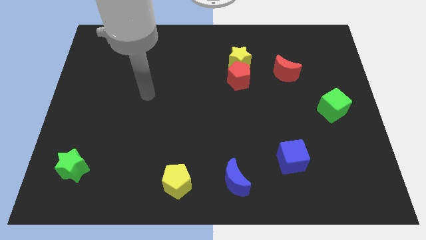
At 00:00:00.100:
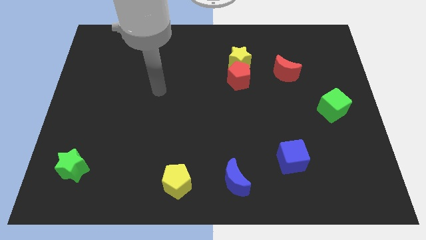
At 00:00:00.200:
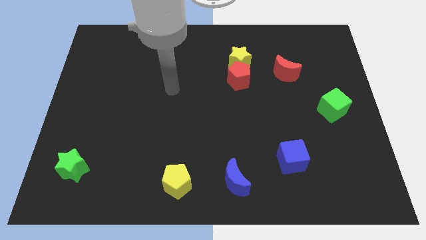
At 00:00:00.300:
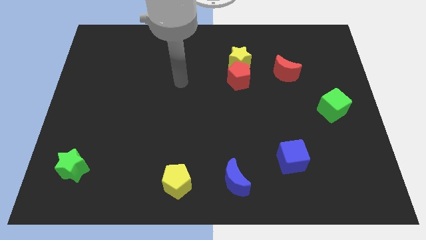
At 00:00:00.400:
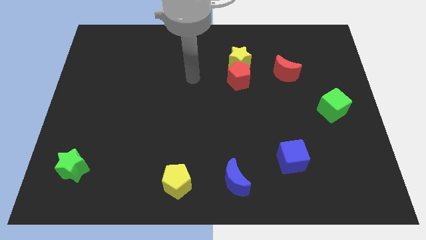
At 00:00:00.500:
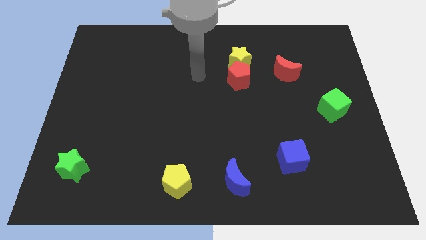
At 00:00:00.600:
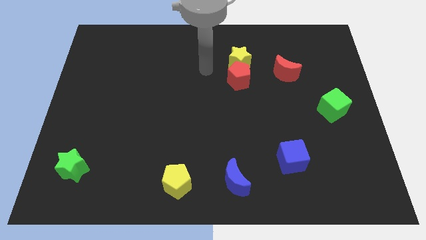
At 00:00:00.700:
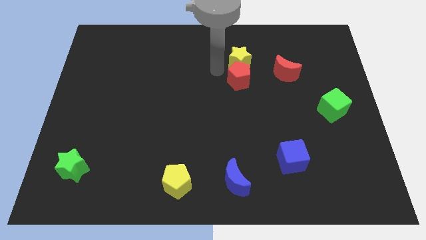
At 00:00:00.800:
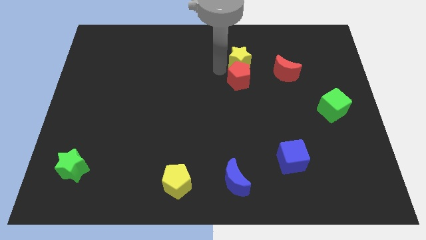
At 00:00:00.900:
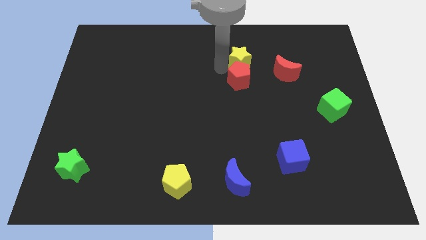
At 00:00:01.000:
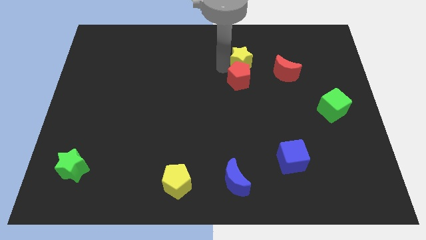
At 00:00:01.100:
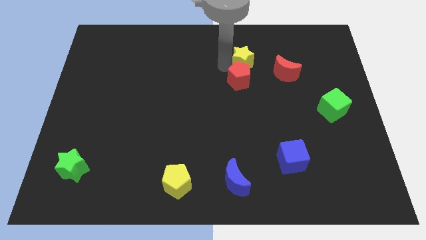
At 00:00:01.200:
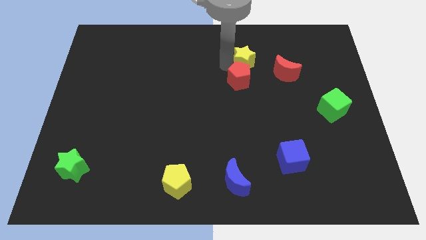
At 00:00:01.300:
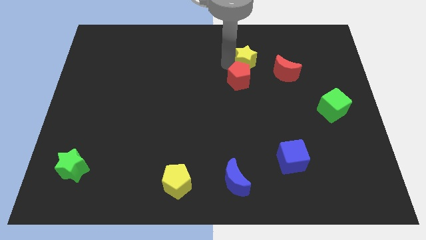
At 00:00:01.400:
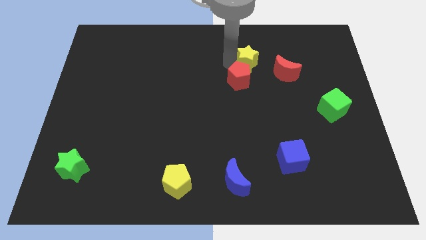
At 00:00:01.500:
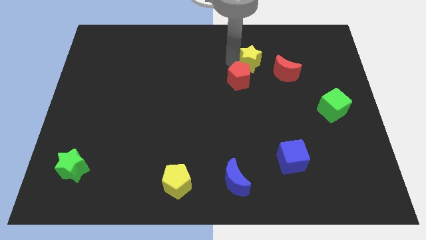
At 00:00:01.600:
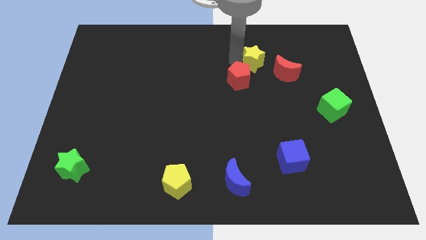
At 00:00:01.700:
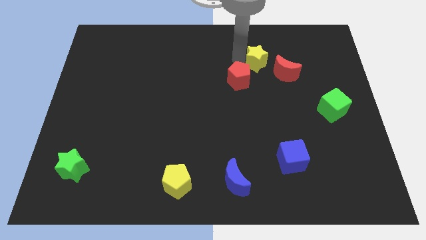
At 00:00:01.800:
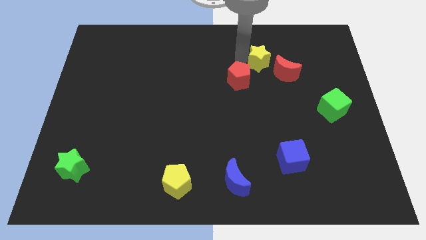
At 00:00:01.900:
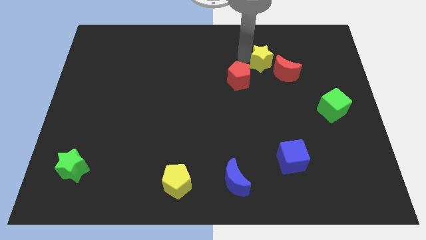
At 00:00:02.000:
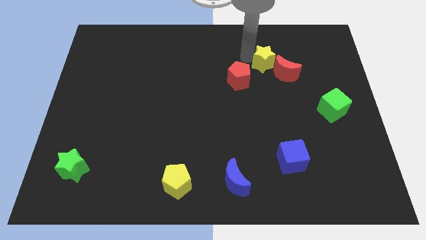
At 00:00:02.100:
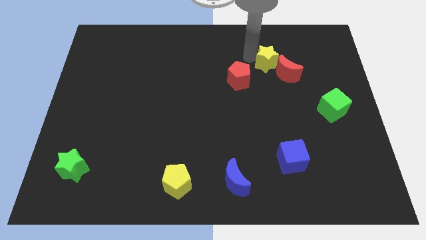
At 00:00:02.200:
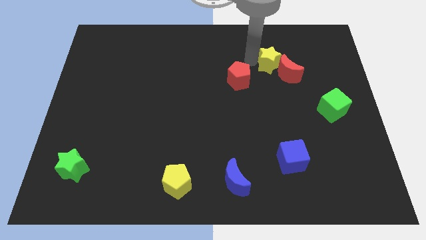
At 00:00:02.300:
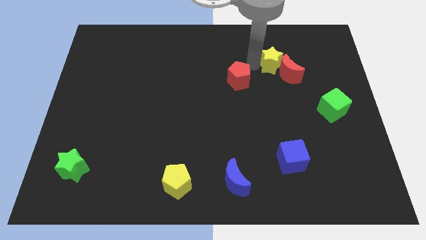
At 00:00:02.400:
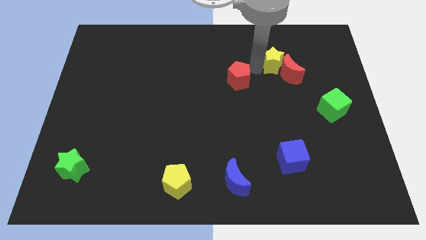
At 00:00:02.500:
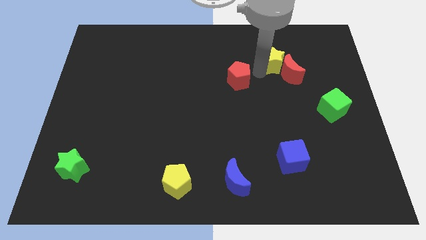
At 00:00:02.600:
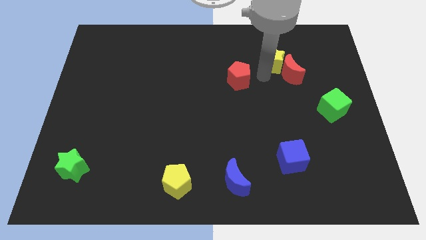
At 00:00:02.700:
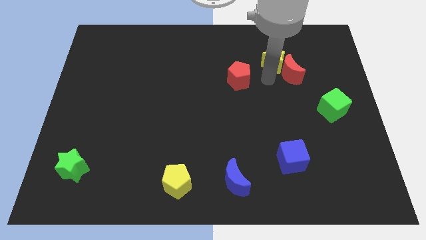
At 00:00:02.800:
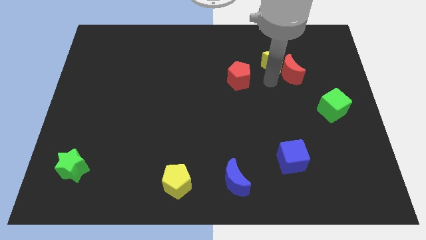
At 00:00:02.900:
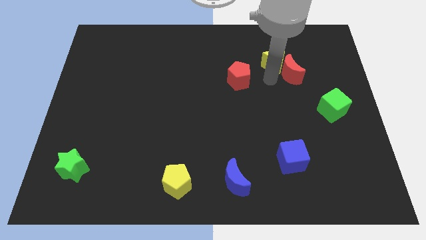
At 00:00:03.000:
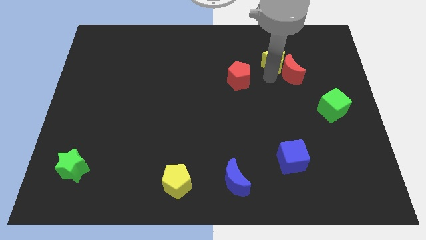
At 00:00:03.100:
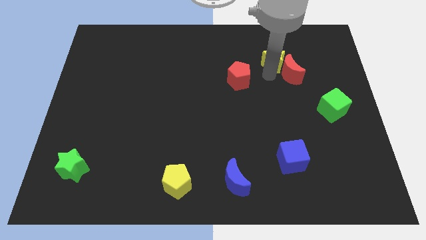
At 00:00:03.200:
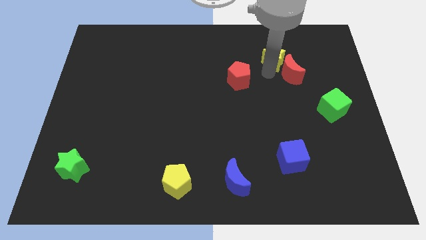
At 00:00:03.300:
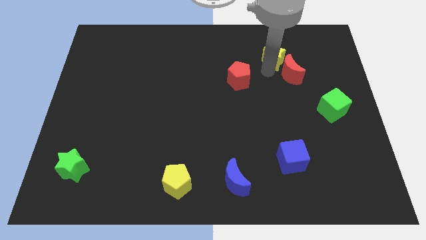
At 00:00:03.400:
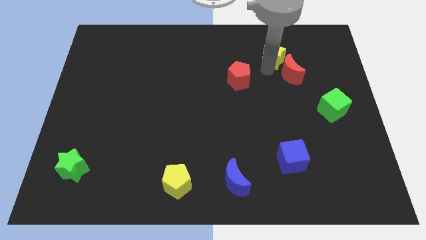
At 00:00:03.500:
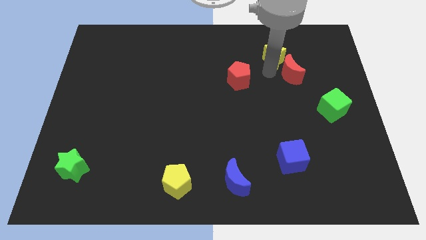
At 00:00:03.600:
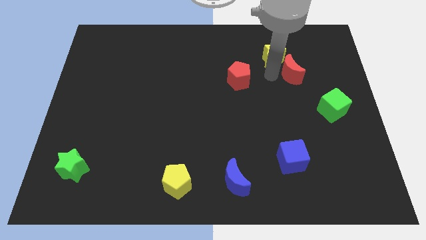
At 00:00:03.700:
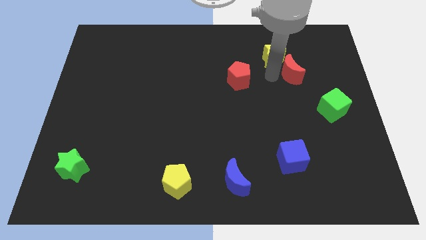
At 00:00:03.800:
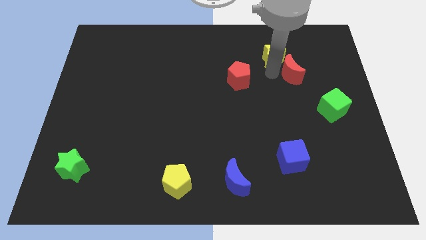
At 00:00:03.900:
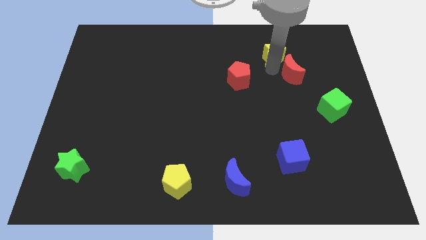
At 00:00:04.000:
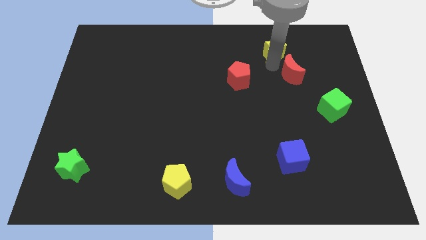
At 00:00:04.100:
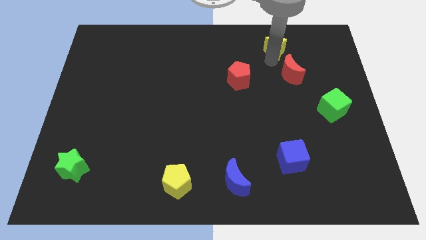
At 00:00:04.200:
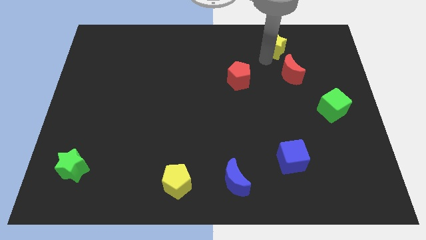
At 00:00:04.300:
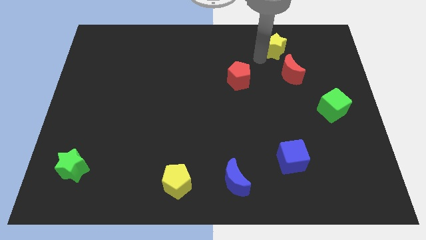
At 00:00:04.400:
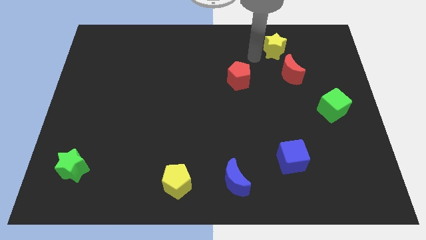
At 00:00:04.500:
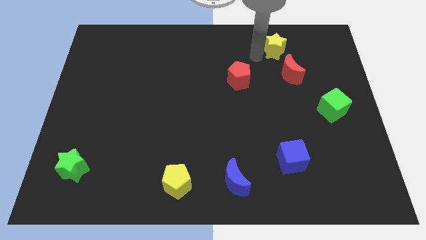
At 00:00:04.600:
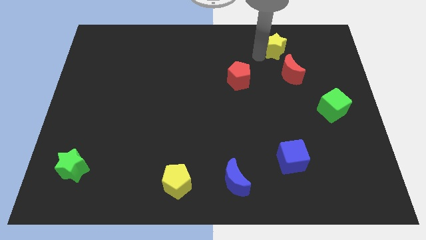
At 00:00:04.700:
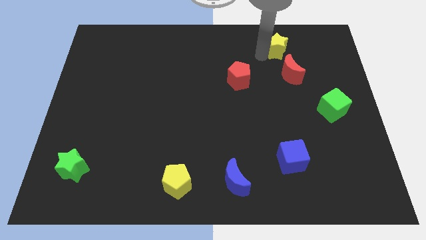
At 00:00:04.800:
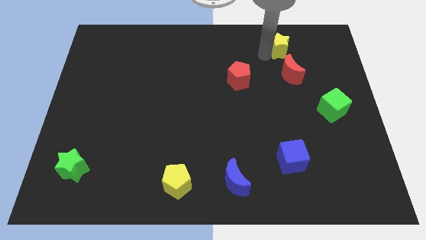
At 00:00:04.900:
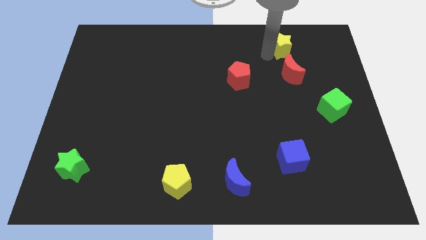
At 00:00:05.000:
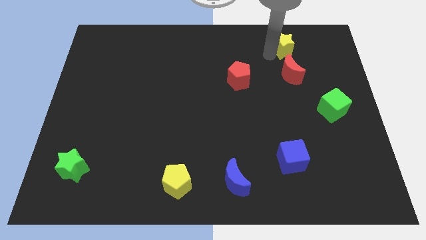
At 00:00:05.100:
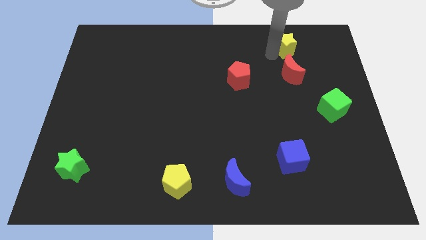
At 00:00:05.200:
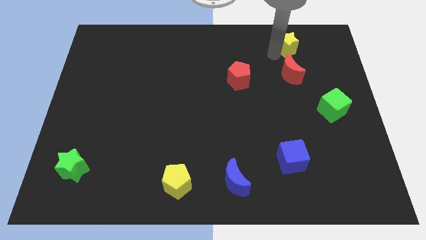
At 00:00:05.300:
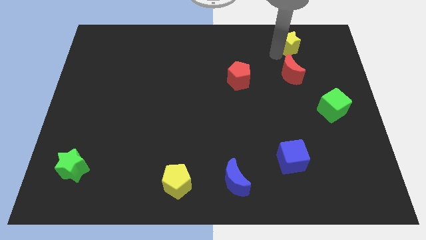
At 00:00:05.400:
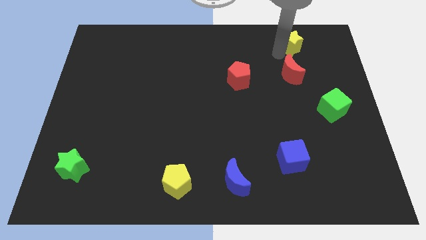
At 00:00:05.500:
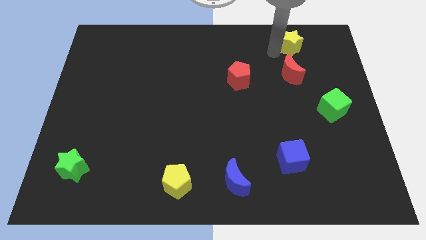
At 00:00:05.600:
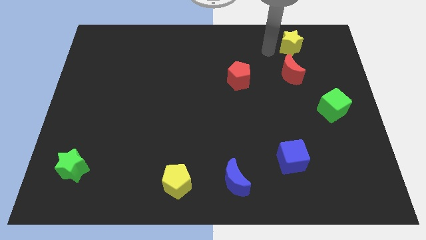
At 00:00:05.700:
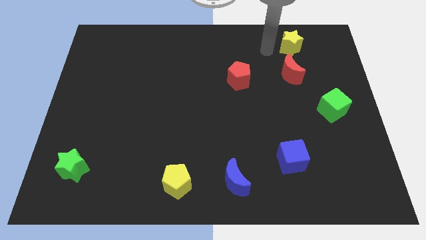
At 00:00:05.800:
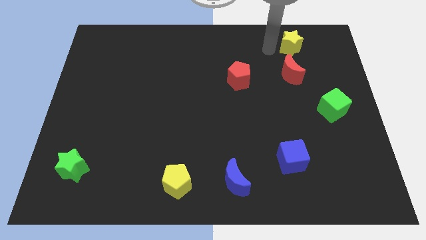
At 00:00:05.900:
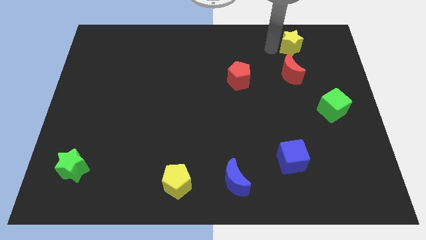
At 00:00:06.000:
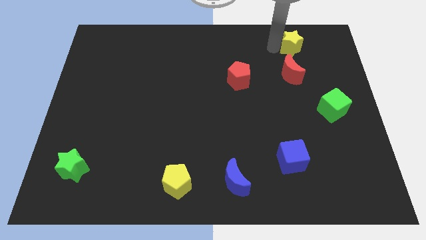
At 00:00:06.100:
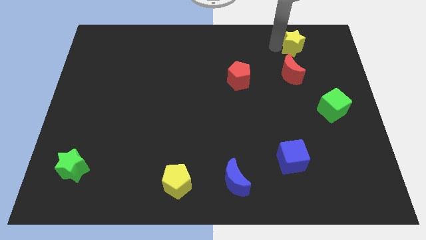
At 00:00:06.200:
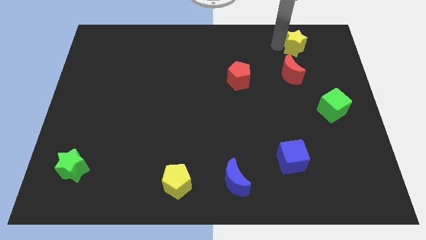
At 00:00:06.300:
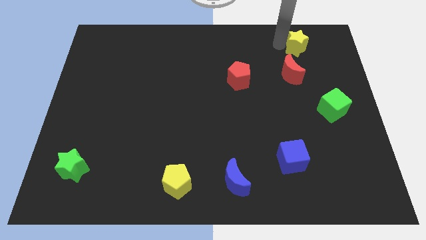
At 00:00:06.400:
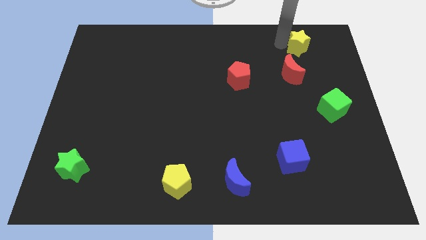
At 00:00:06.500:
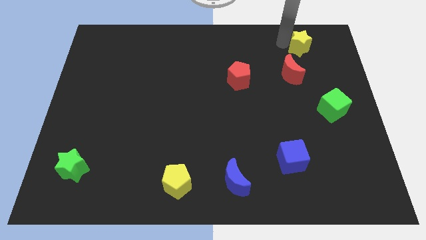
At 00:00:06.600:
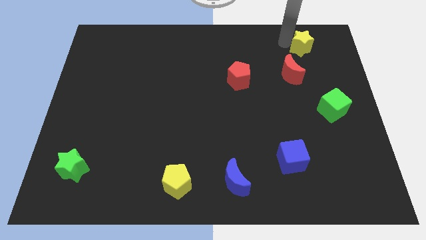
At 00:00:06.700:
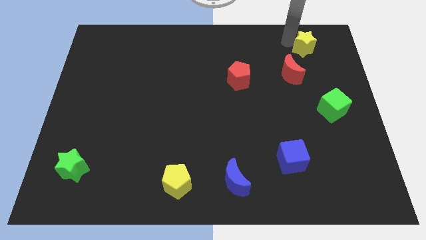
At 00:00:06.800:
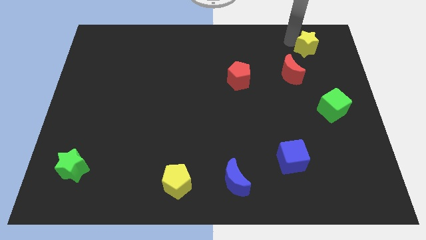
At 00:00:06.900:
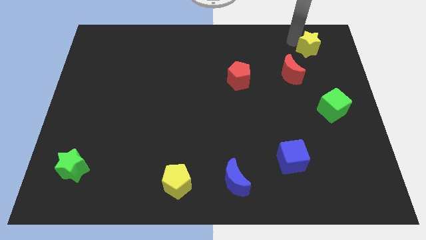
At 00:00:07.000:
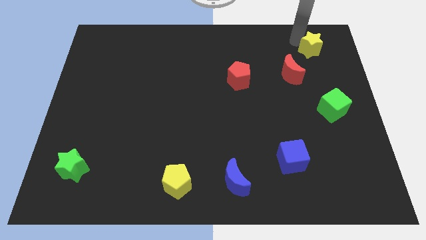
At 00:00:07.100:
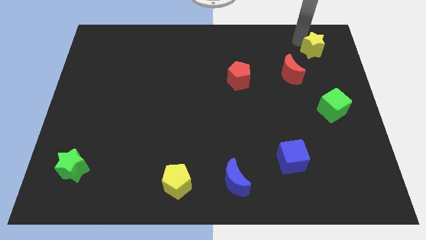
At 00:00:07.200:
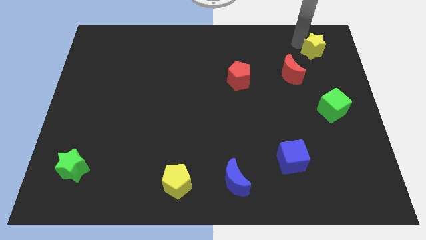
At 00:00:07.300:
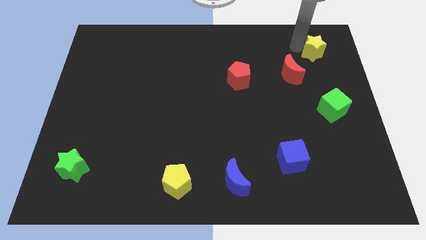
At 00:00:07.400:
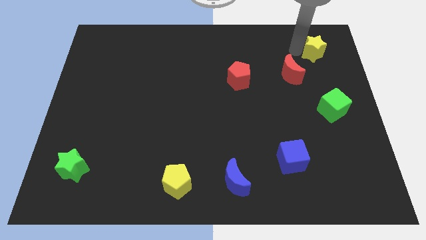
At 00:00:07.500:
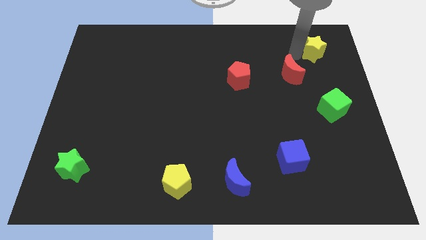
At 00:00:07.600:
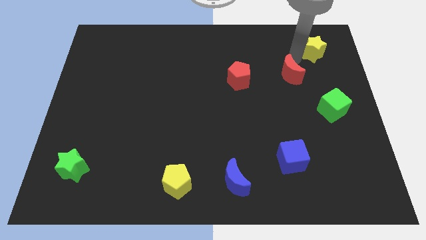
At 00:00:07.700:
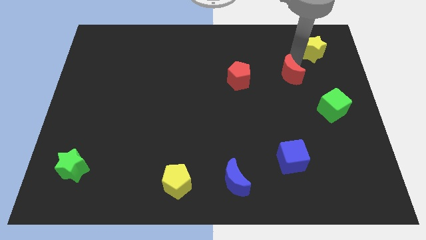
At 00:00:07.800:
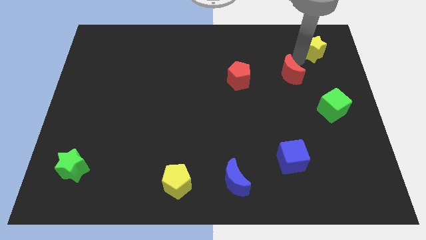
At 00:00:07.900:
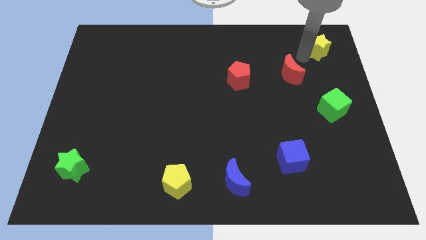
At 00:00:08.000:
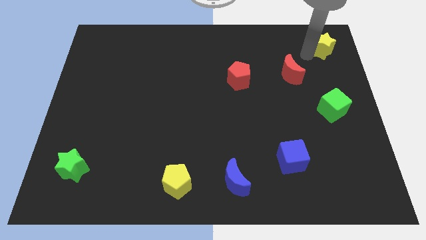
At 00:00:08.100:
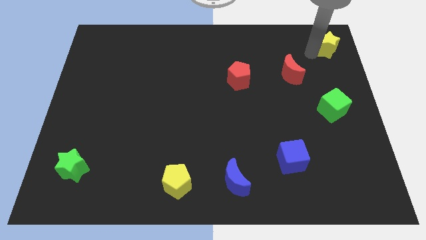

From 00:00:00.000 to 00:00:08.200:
put the yellow star to the upper right corner
